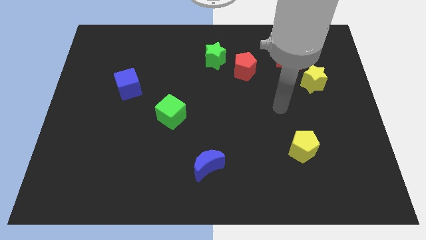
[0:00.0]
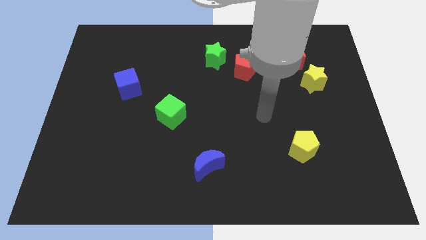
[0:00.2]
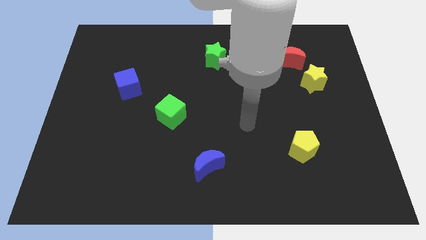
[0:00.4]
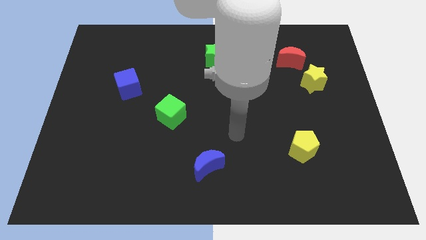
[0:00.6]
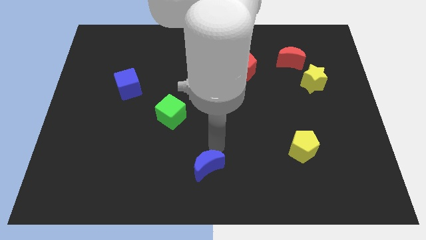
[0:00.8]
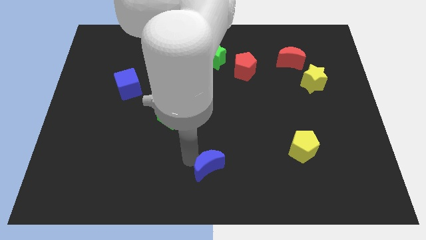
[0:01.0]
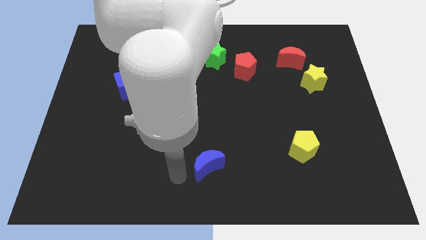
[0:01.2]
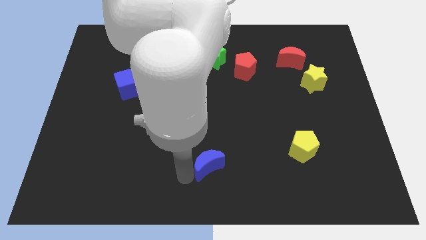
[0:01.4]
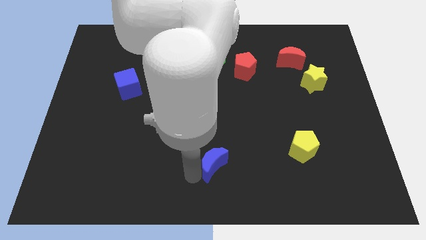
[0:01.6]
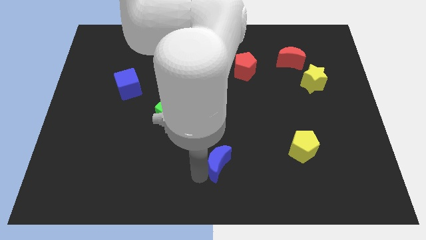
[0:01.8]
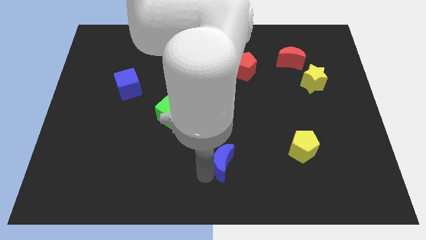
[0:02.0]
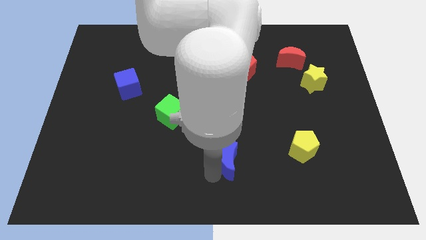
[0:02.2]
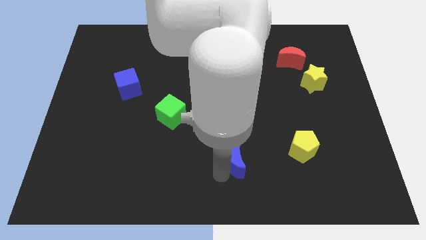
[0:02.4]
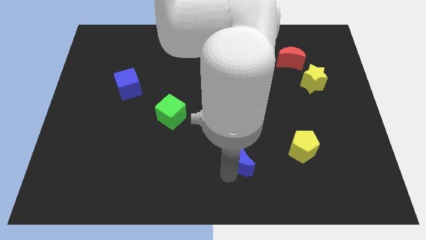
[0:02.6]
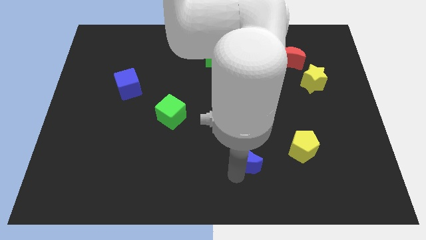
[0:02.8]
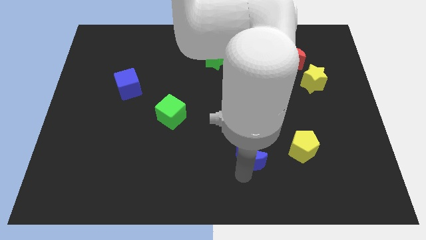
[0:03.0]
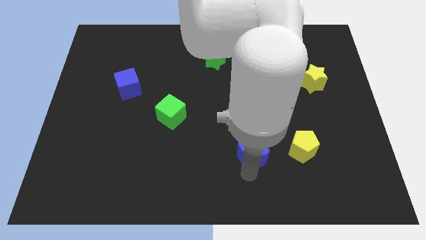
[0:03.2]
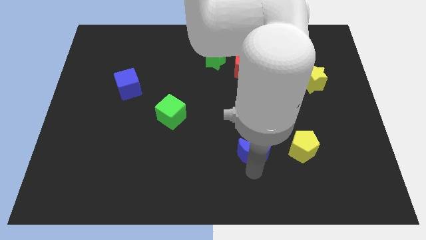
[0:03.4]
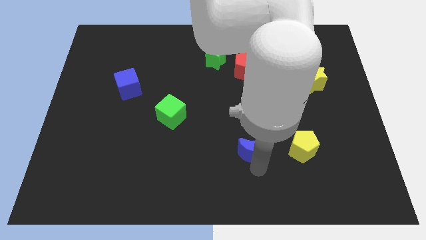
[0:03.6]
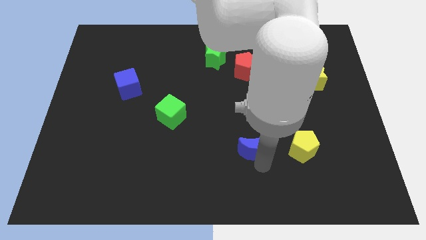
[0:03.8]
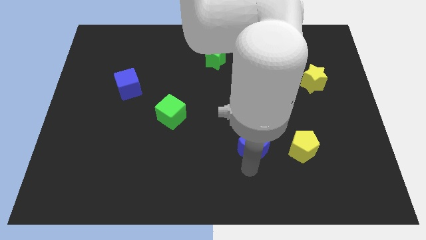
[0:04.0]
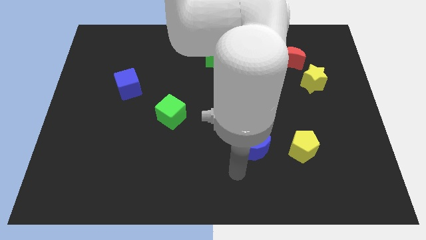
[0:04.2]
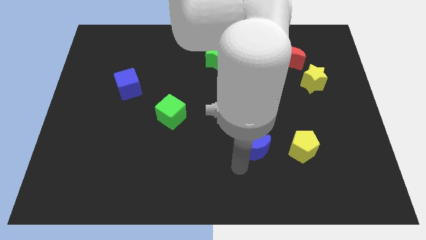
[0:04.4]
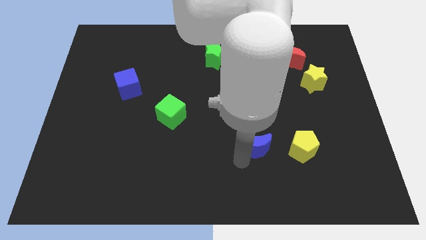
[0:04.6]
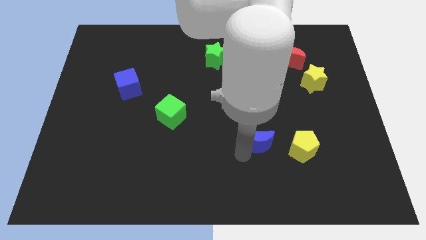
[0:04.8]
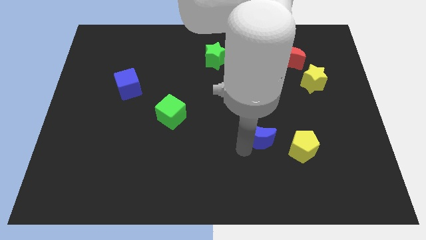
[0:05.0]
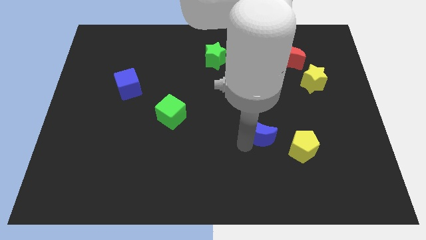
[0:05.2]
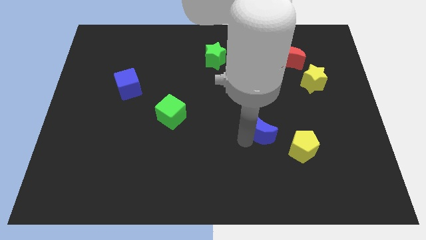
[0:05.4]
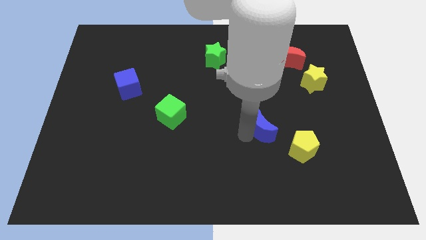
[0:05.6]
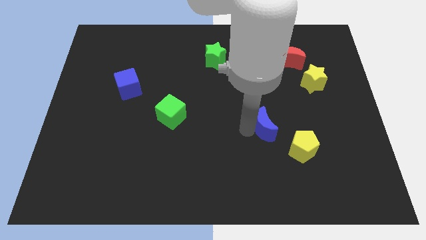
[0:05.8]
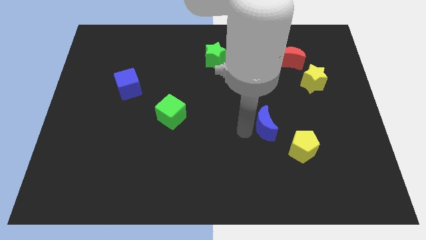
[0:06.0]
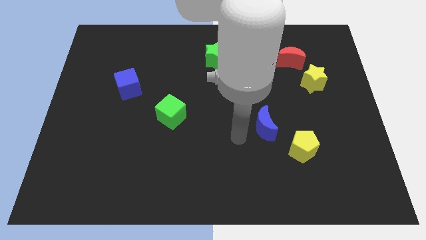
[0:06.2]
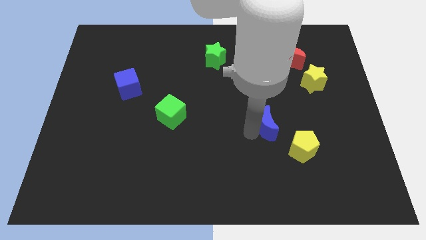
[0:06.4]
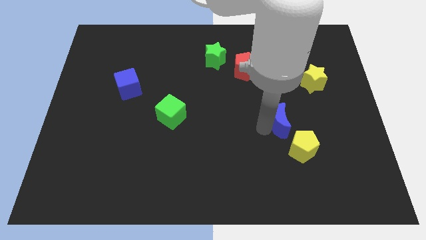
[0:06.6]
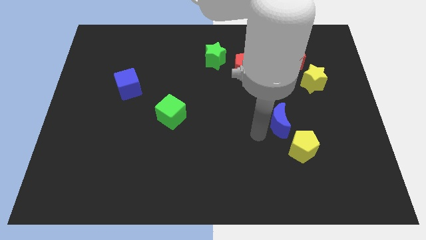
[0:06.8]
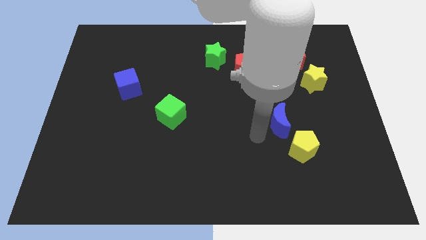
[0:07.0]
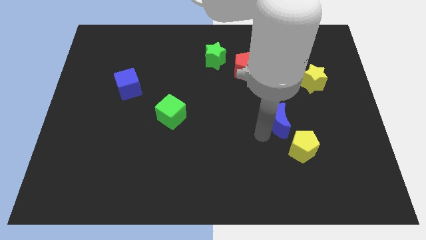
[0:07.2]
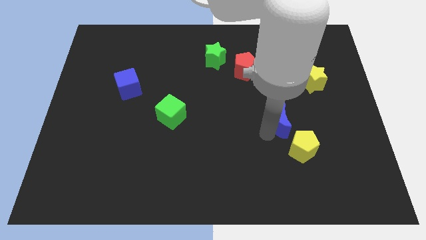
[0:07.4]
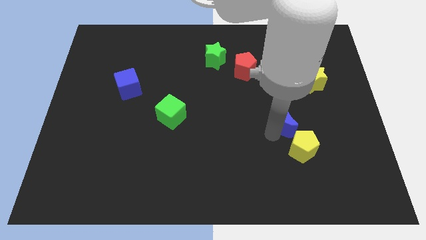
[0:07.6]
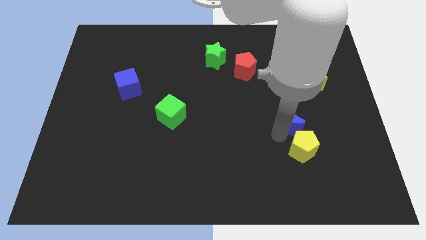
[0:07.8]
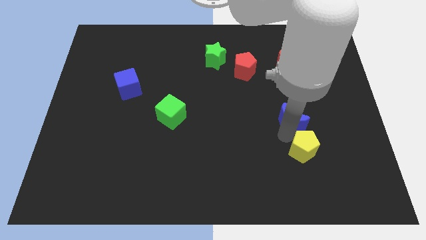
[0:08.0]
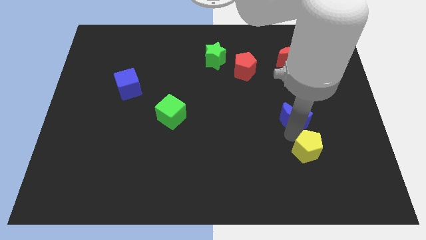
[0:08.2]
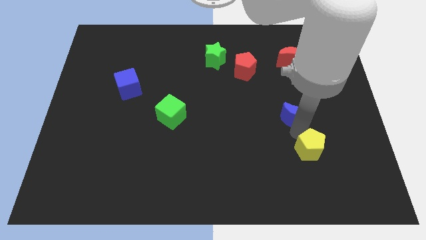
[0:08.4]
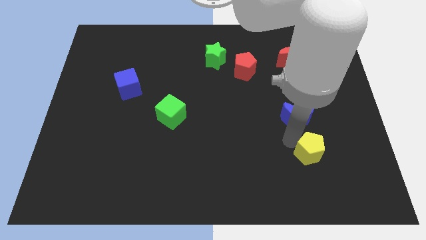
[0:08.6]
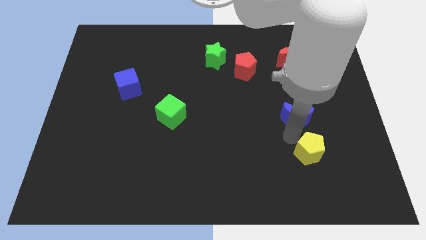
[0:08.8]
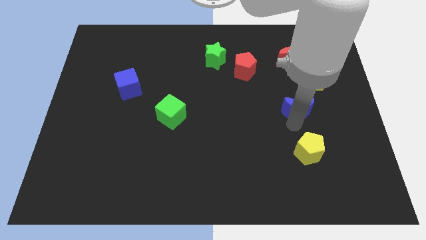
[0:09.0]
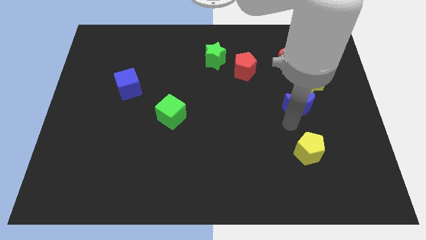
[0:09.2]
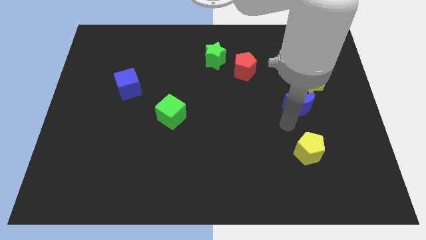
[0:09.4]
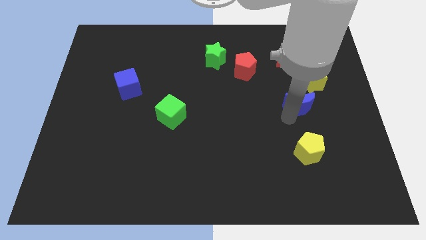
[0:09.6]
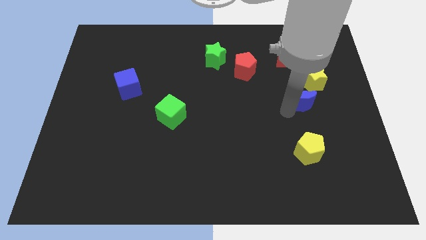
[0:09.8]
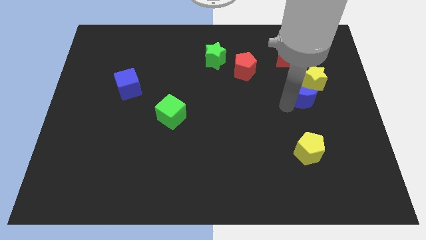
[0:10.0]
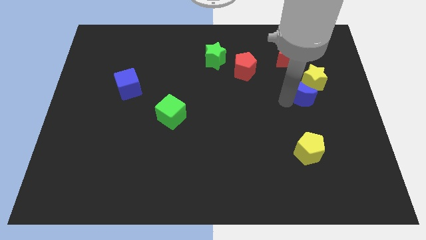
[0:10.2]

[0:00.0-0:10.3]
slide the blue moon to the yellow star

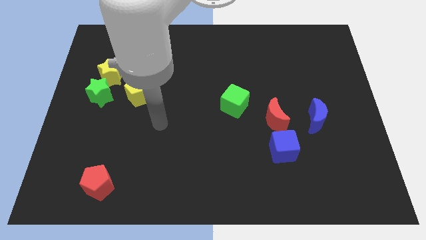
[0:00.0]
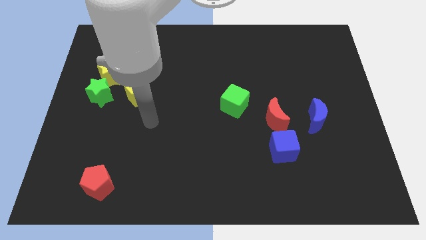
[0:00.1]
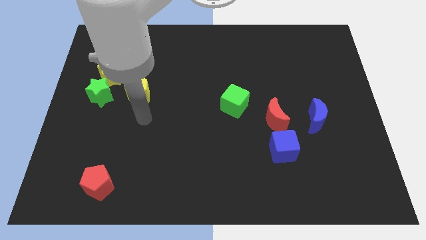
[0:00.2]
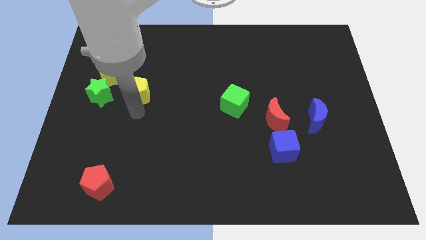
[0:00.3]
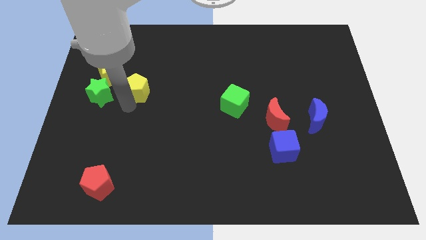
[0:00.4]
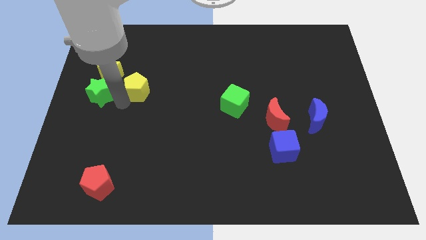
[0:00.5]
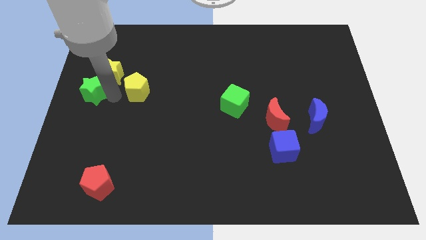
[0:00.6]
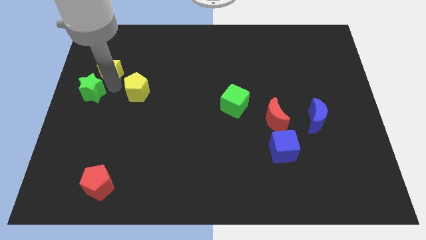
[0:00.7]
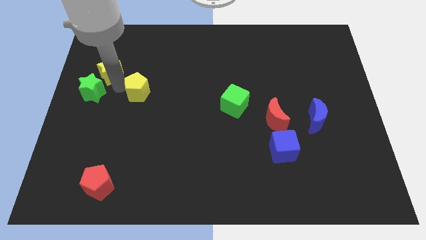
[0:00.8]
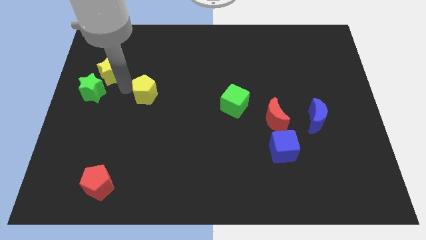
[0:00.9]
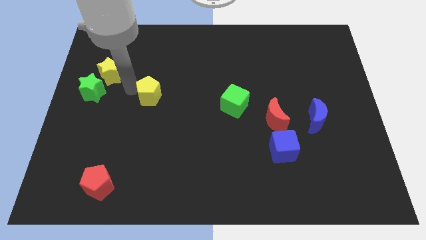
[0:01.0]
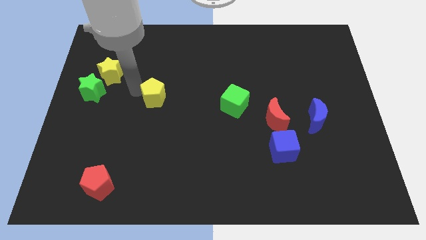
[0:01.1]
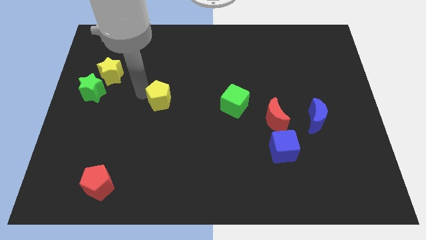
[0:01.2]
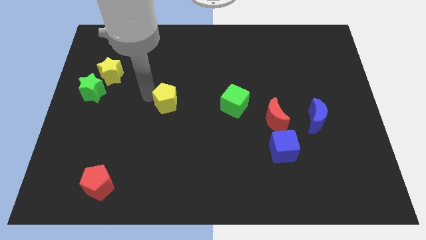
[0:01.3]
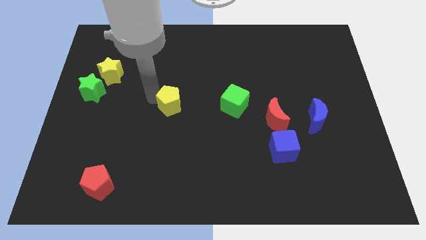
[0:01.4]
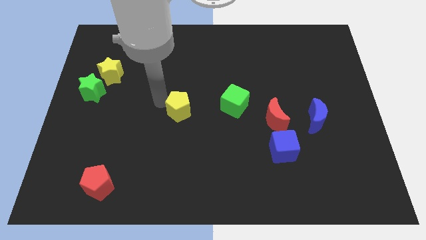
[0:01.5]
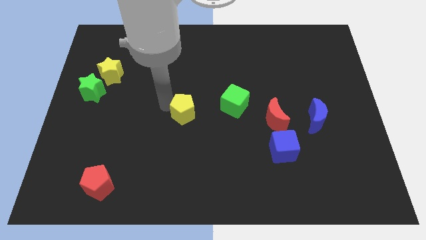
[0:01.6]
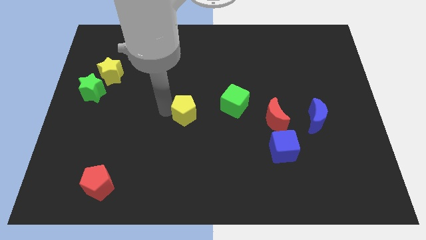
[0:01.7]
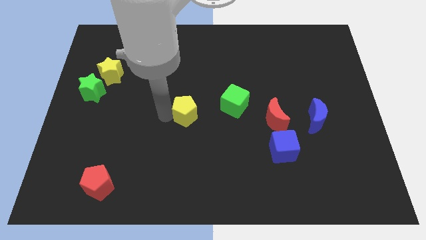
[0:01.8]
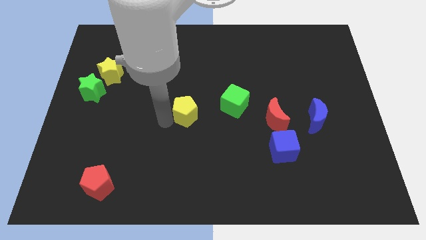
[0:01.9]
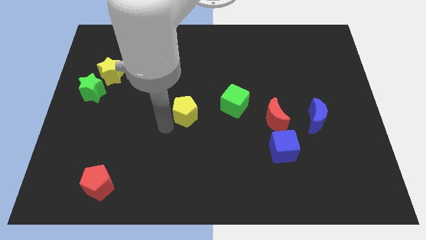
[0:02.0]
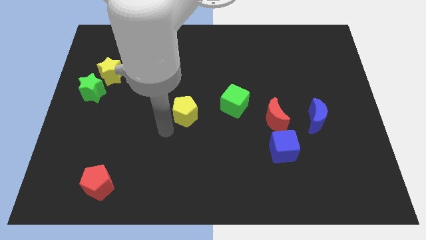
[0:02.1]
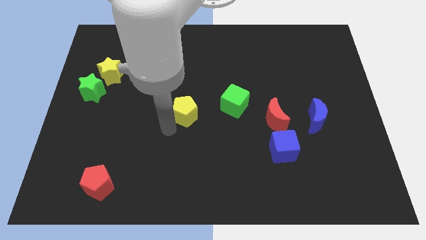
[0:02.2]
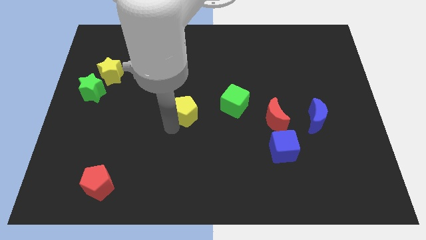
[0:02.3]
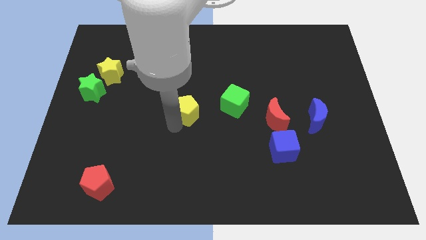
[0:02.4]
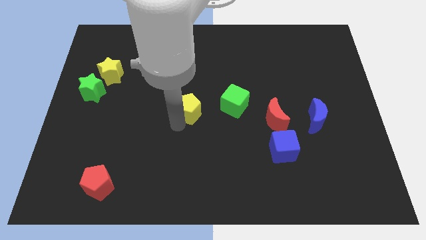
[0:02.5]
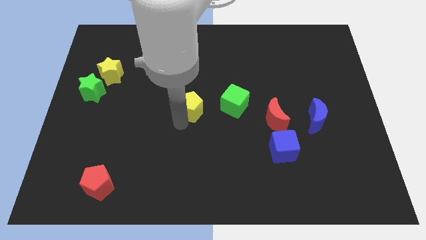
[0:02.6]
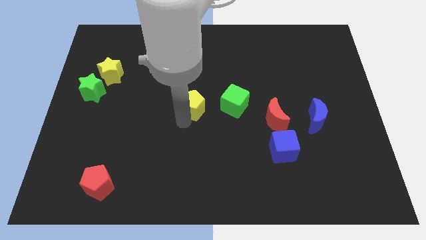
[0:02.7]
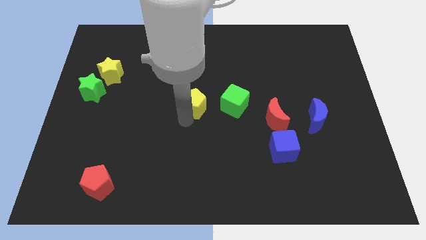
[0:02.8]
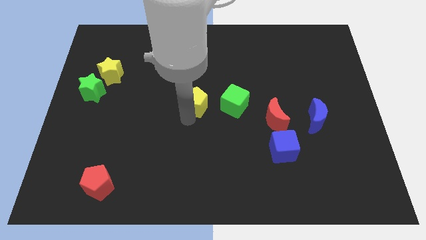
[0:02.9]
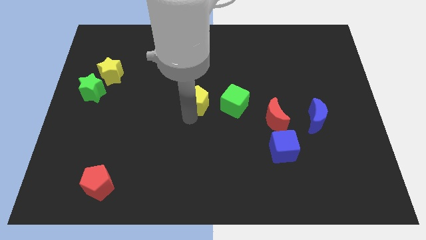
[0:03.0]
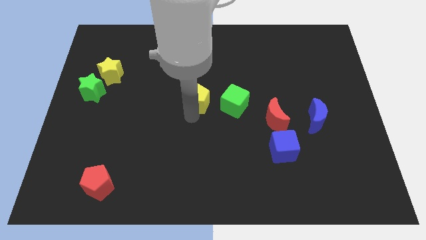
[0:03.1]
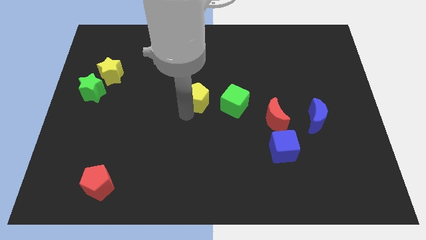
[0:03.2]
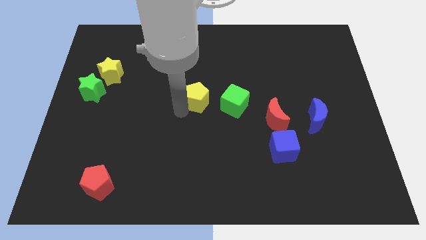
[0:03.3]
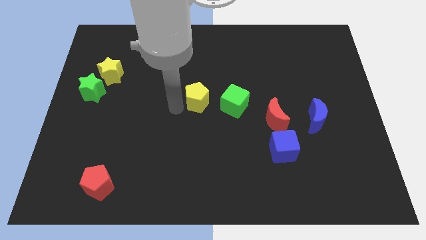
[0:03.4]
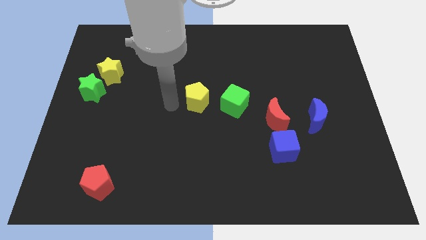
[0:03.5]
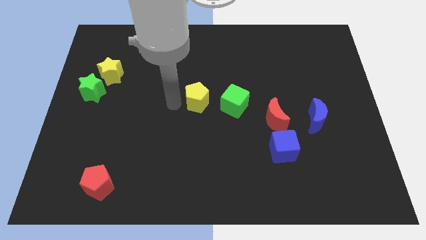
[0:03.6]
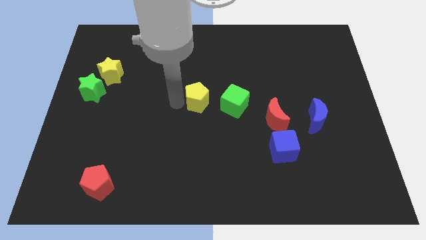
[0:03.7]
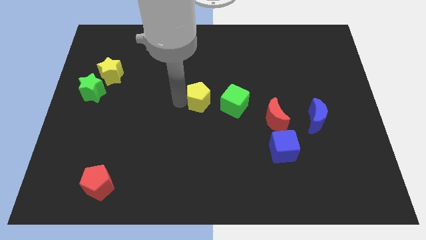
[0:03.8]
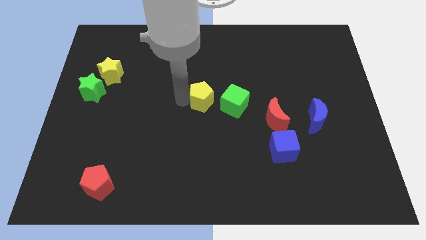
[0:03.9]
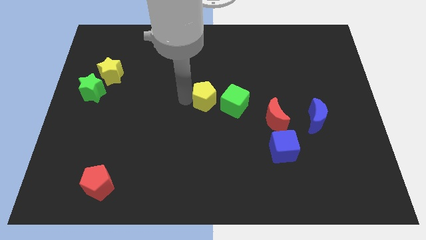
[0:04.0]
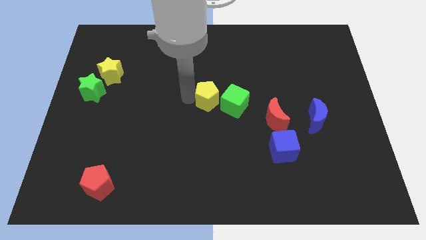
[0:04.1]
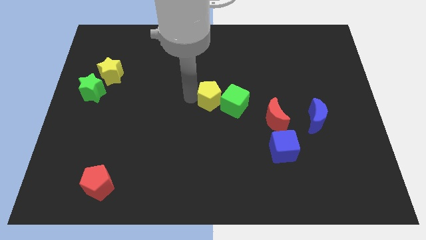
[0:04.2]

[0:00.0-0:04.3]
push the yellow pentagon next to the green cube
